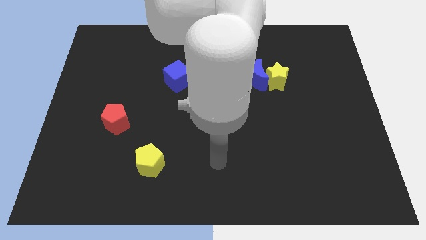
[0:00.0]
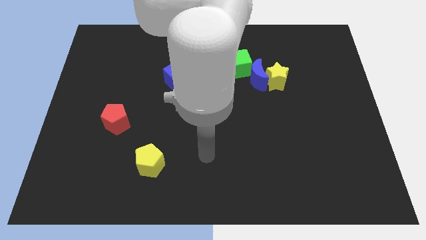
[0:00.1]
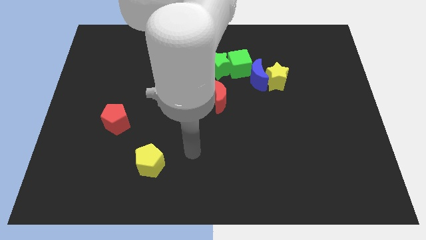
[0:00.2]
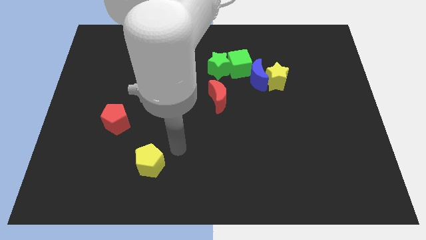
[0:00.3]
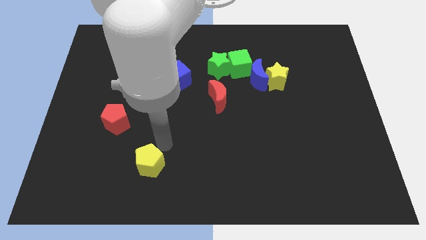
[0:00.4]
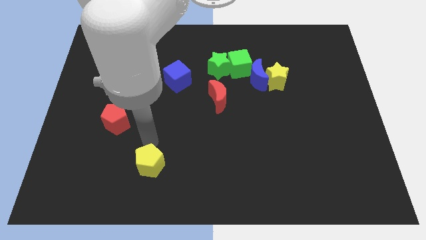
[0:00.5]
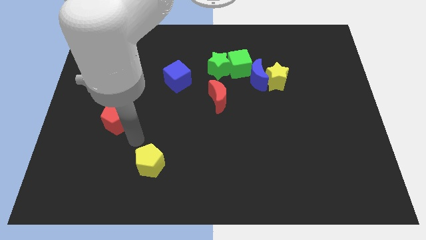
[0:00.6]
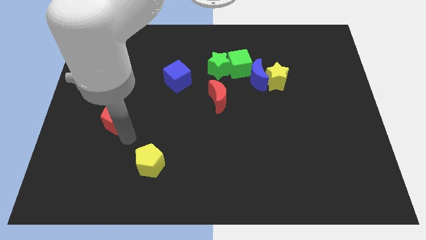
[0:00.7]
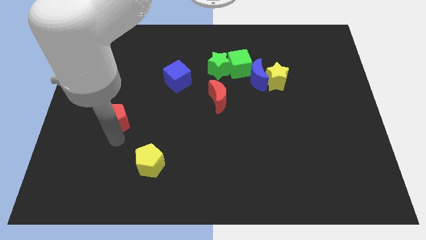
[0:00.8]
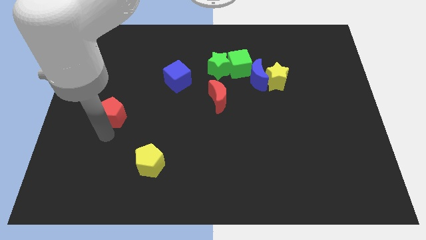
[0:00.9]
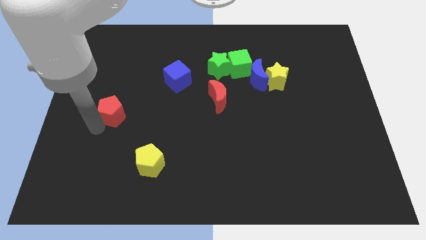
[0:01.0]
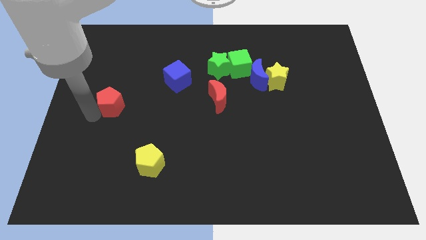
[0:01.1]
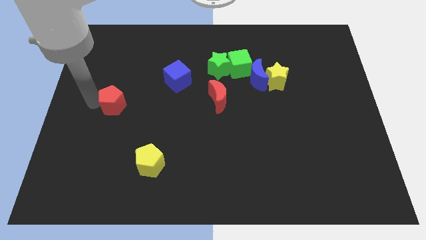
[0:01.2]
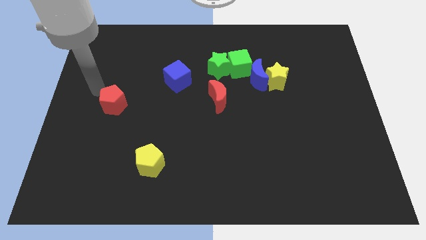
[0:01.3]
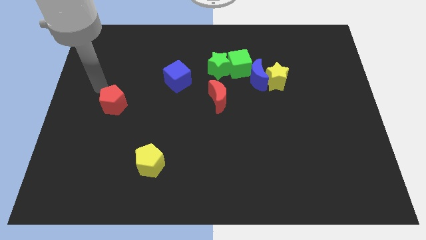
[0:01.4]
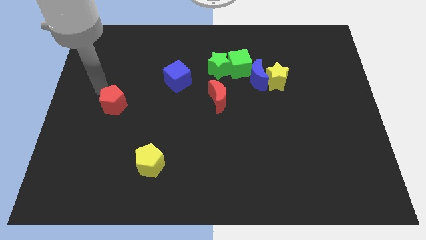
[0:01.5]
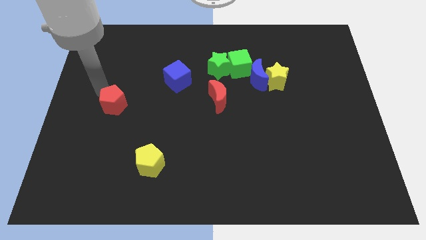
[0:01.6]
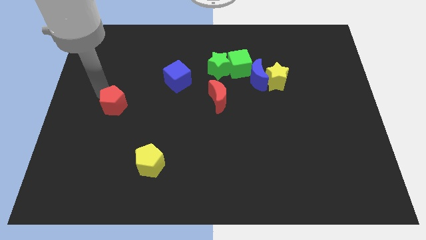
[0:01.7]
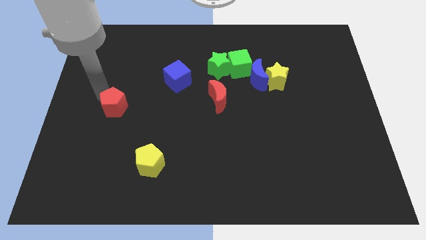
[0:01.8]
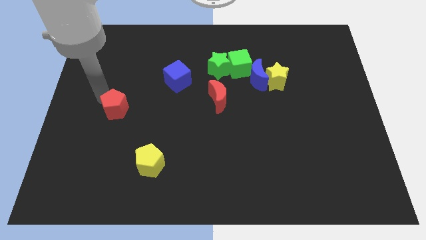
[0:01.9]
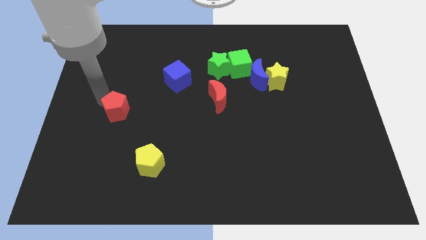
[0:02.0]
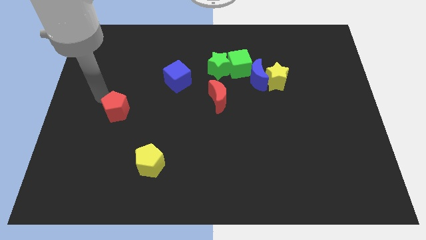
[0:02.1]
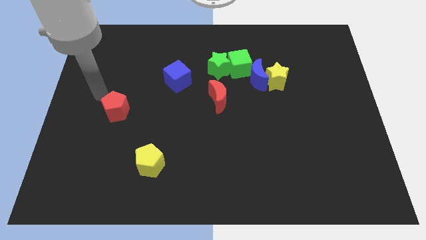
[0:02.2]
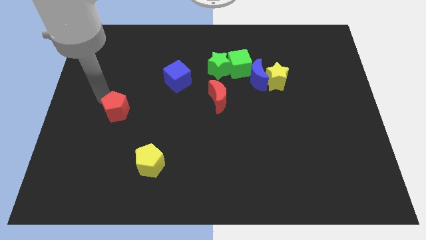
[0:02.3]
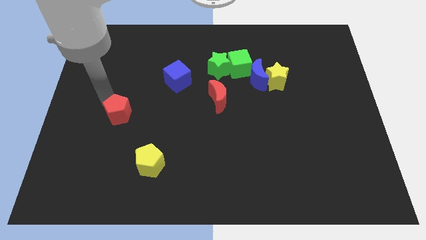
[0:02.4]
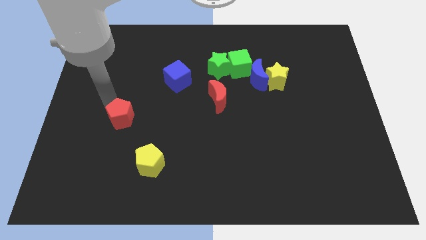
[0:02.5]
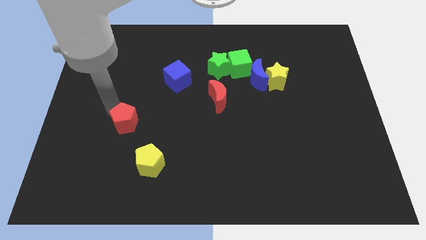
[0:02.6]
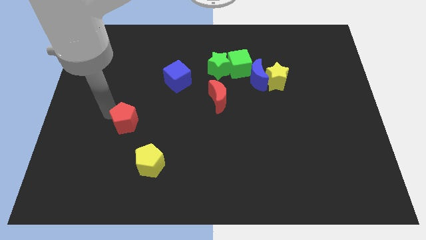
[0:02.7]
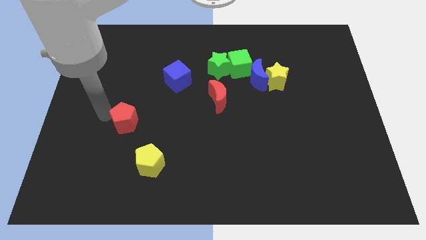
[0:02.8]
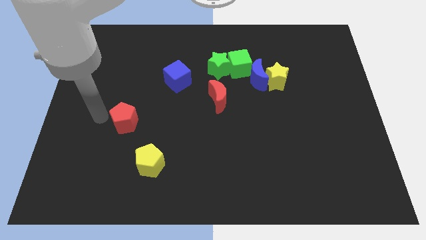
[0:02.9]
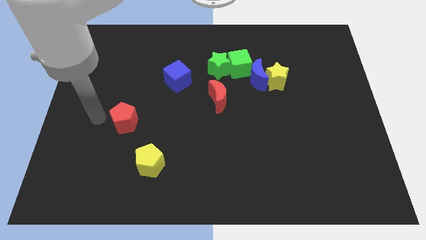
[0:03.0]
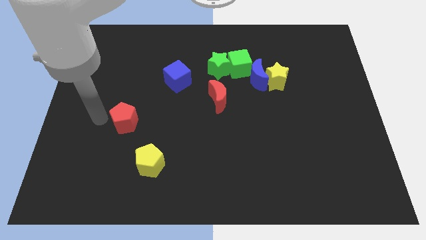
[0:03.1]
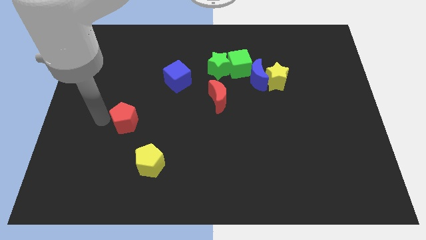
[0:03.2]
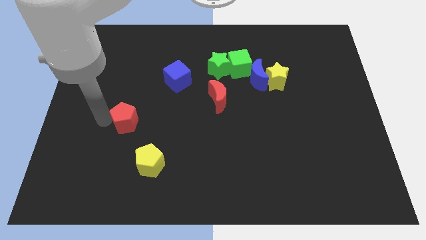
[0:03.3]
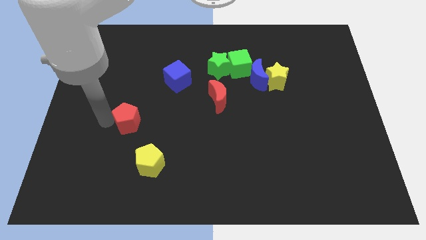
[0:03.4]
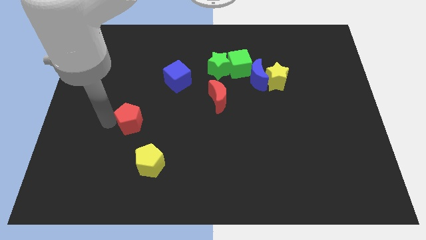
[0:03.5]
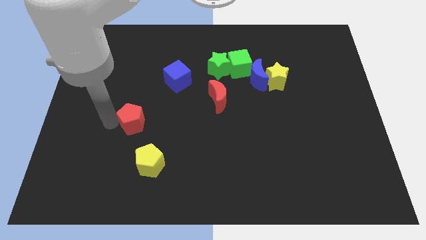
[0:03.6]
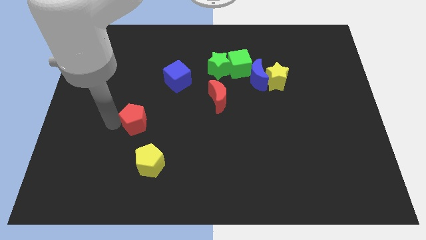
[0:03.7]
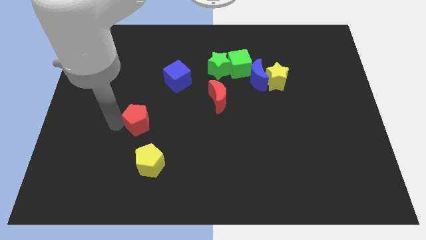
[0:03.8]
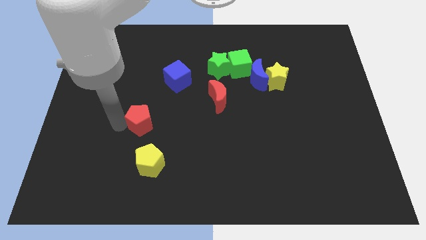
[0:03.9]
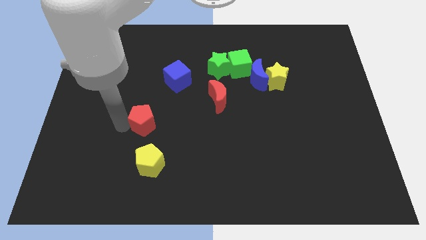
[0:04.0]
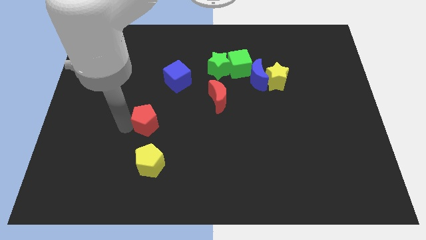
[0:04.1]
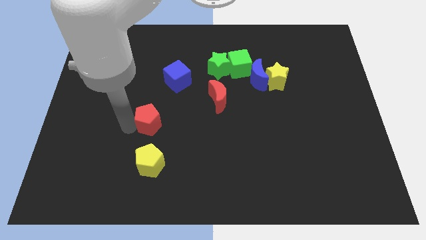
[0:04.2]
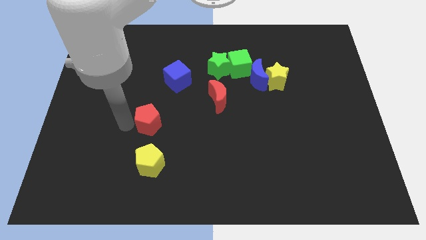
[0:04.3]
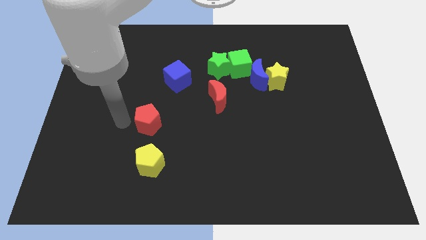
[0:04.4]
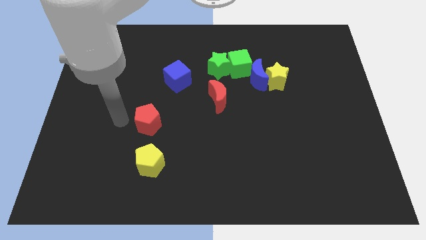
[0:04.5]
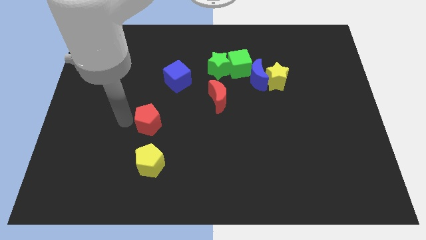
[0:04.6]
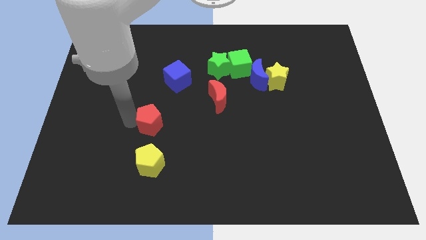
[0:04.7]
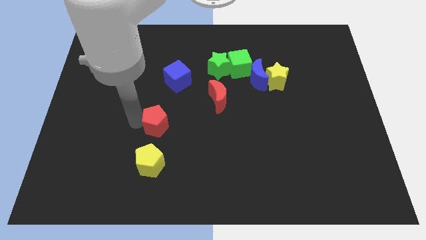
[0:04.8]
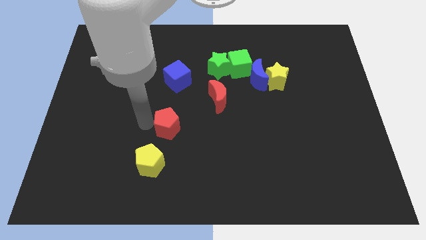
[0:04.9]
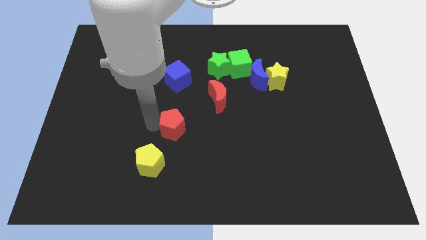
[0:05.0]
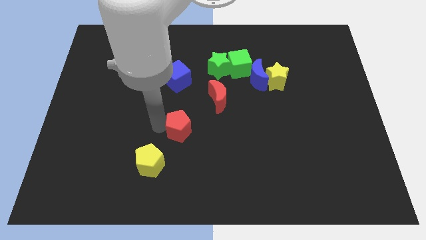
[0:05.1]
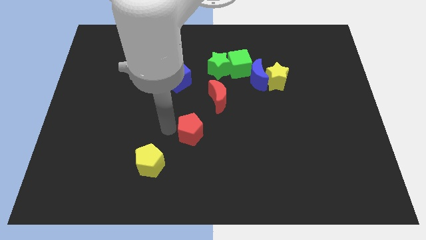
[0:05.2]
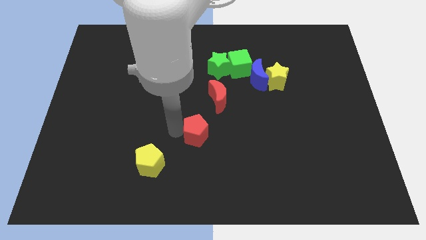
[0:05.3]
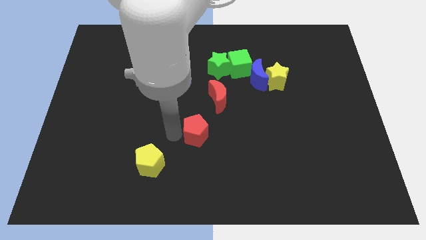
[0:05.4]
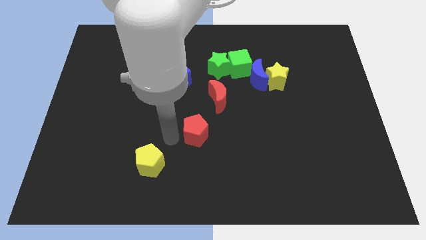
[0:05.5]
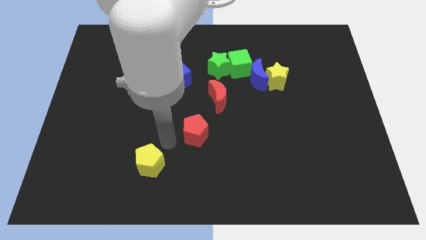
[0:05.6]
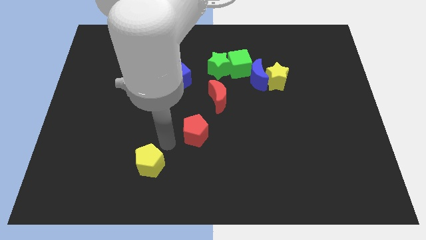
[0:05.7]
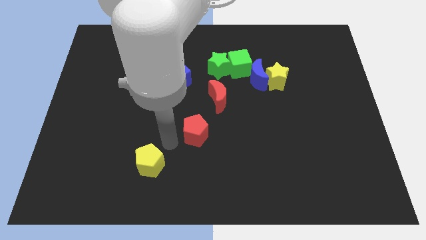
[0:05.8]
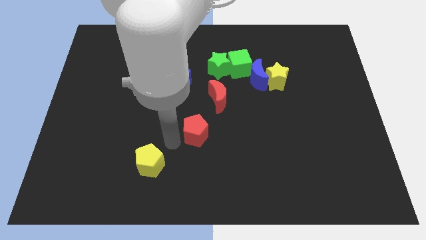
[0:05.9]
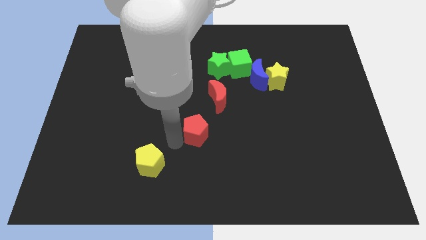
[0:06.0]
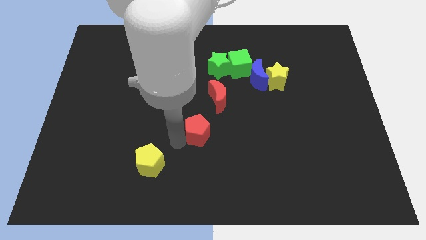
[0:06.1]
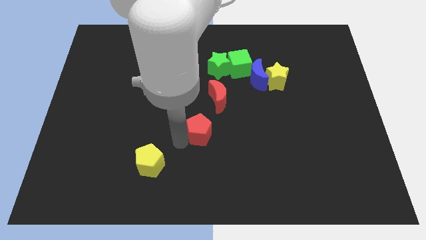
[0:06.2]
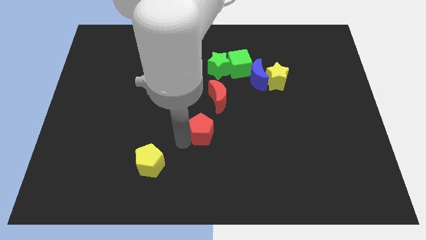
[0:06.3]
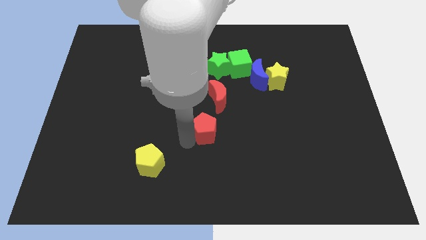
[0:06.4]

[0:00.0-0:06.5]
push the red pentagon right

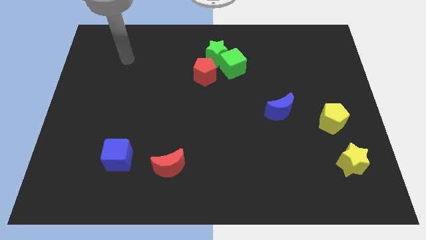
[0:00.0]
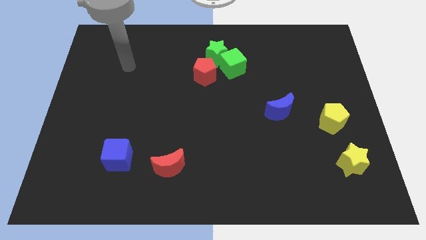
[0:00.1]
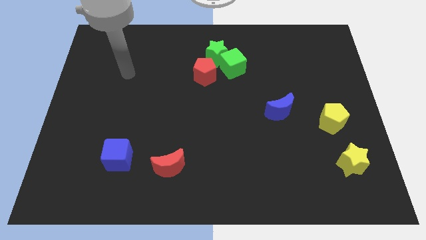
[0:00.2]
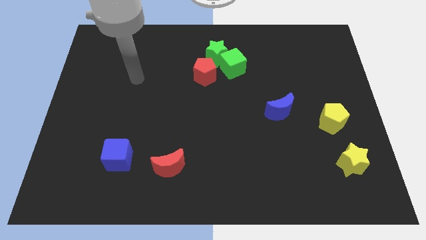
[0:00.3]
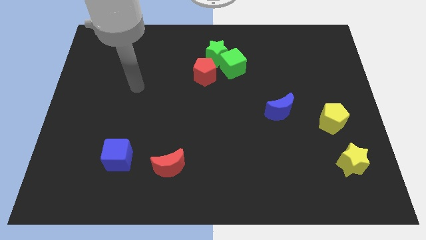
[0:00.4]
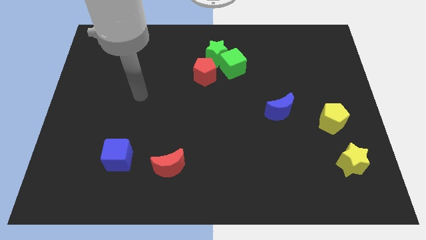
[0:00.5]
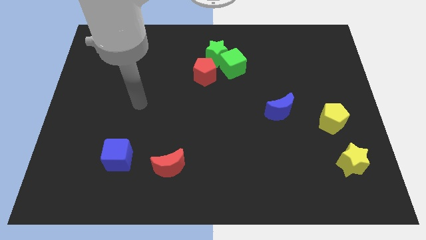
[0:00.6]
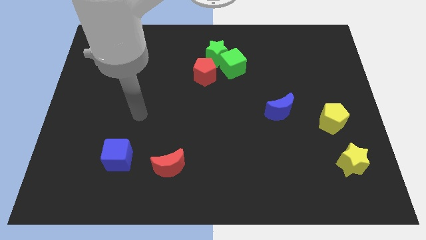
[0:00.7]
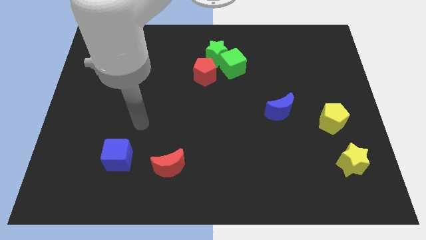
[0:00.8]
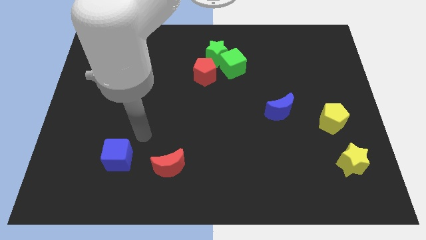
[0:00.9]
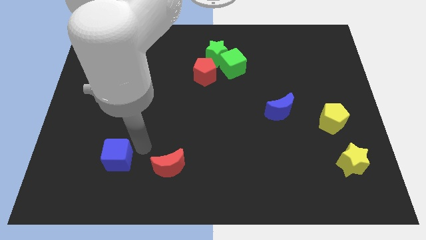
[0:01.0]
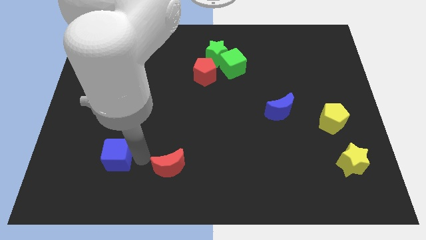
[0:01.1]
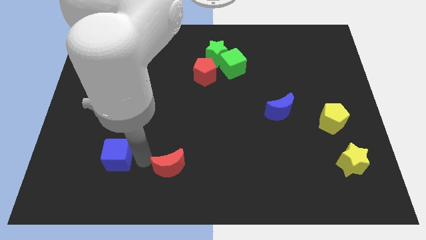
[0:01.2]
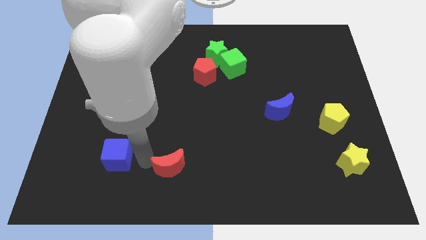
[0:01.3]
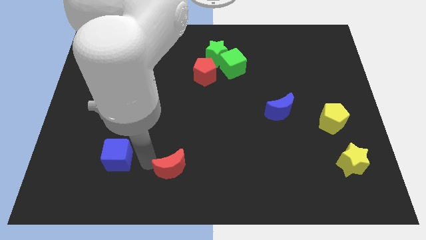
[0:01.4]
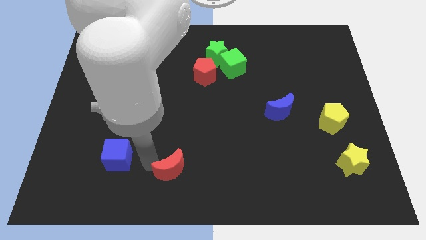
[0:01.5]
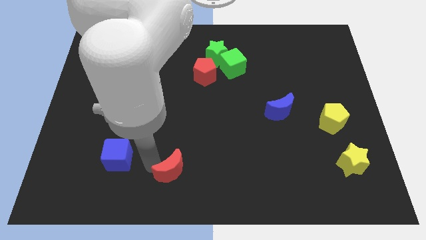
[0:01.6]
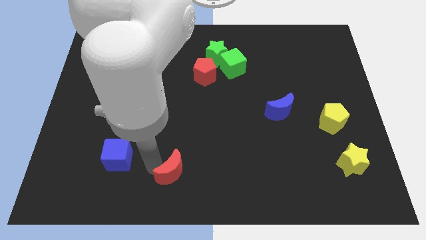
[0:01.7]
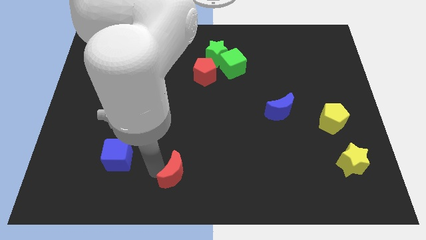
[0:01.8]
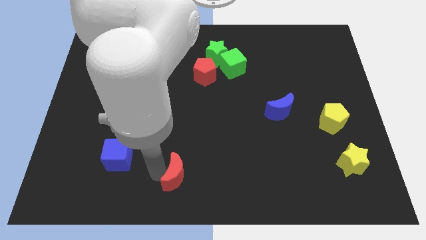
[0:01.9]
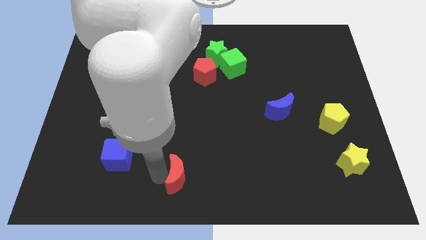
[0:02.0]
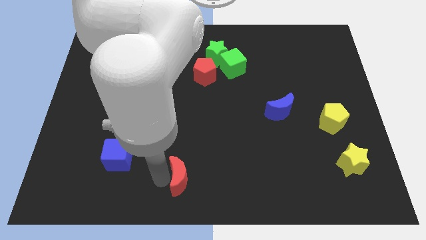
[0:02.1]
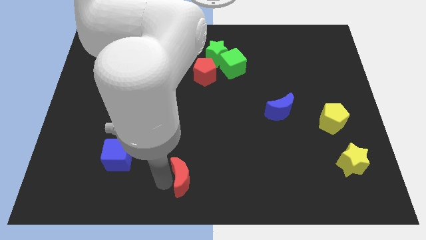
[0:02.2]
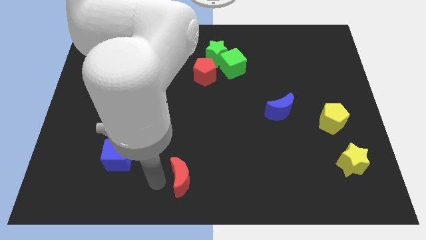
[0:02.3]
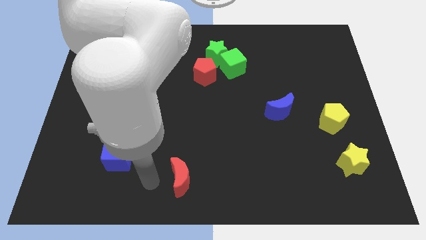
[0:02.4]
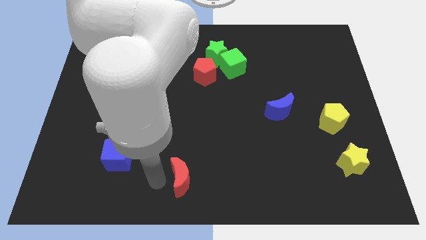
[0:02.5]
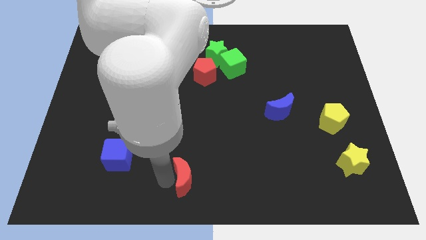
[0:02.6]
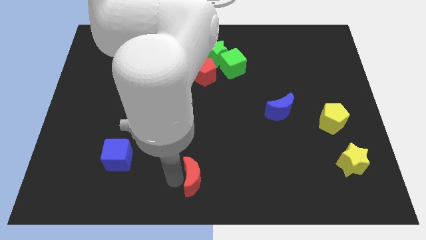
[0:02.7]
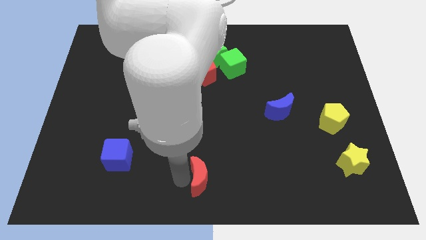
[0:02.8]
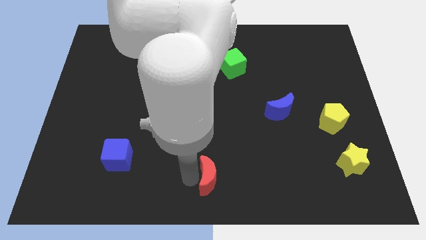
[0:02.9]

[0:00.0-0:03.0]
push the red moon right somewhat
